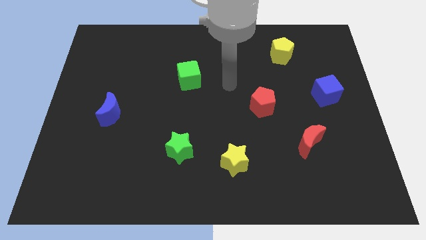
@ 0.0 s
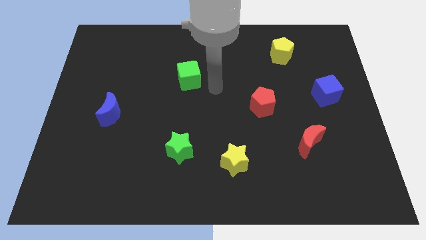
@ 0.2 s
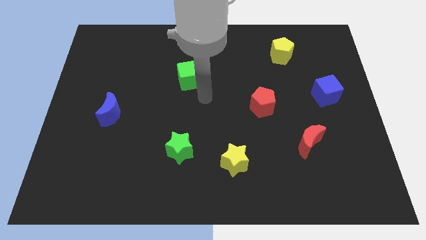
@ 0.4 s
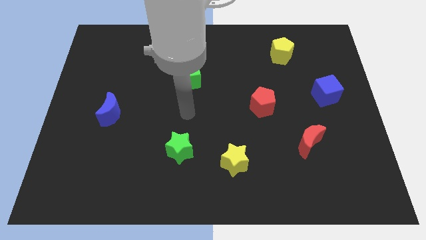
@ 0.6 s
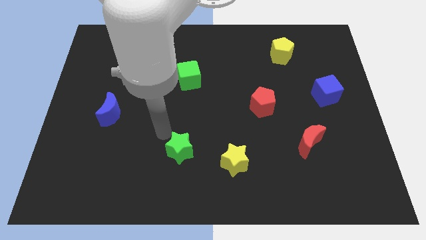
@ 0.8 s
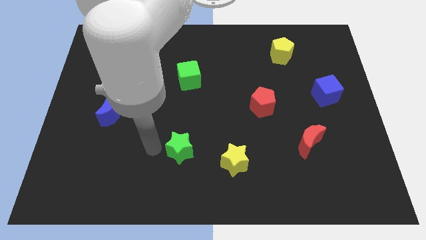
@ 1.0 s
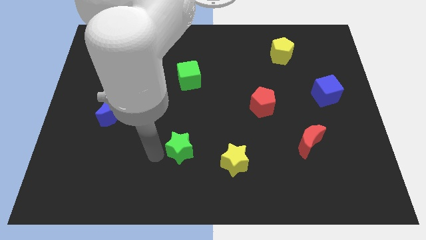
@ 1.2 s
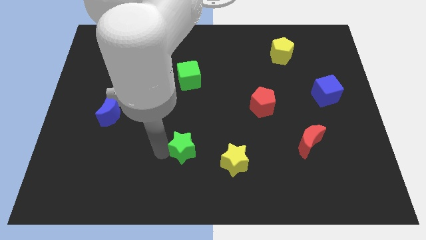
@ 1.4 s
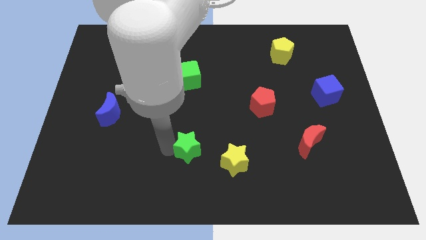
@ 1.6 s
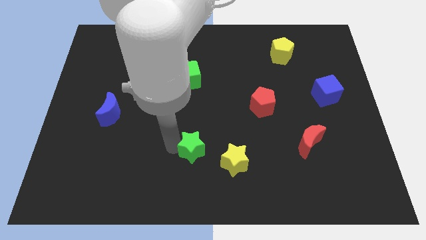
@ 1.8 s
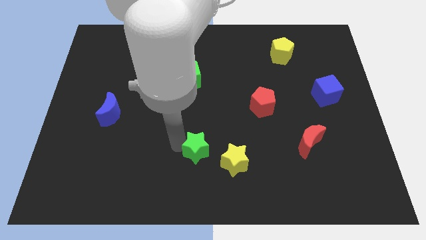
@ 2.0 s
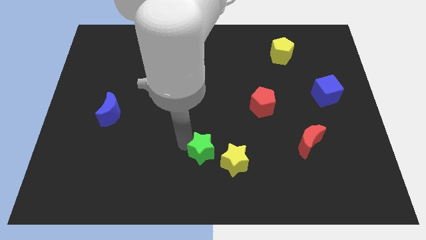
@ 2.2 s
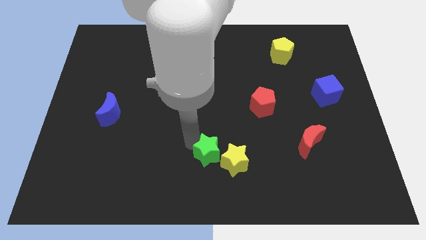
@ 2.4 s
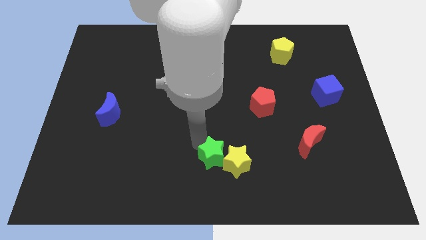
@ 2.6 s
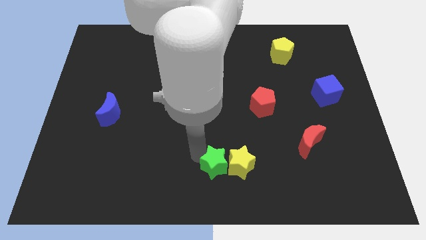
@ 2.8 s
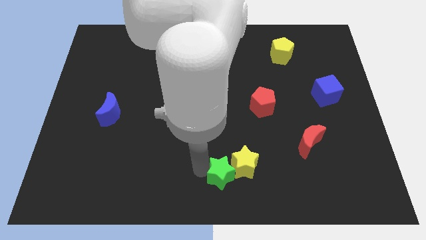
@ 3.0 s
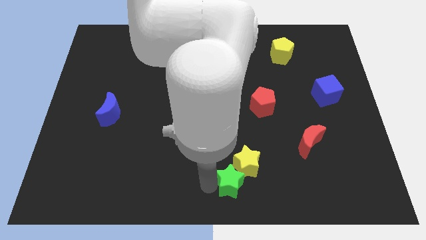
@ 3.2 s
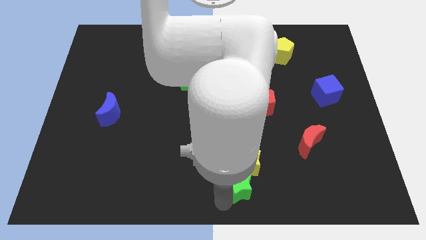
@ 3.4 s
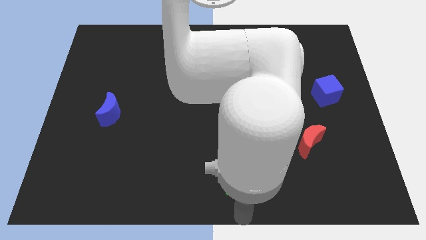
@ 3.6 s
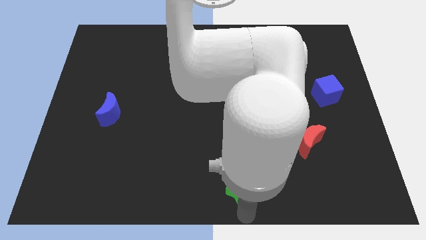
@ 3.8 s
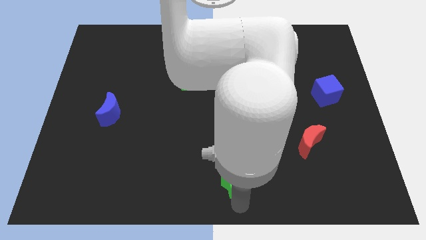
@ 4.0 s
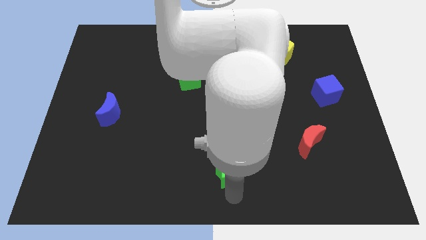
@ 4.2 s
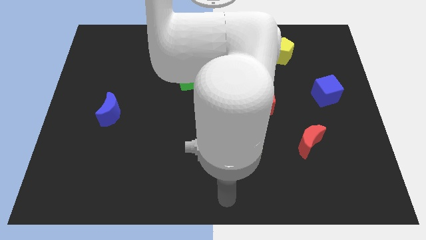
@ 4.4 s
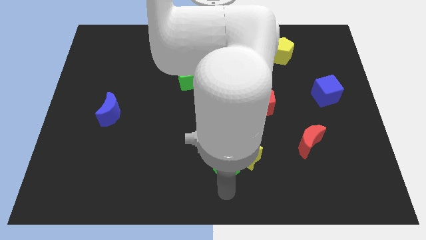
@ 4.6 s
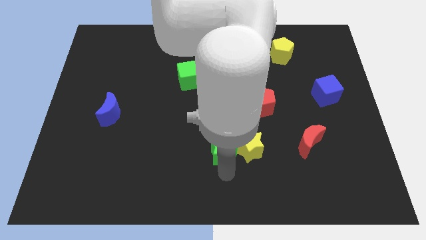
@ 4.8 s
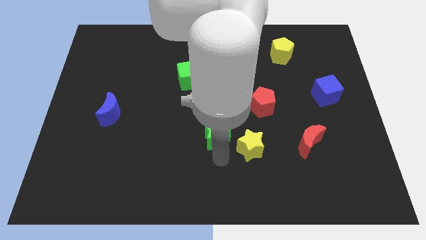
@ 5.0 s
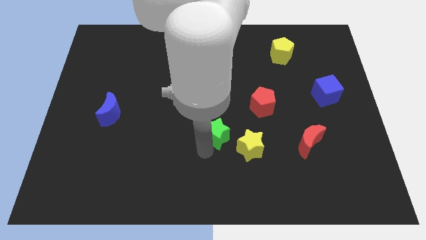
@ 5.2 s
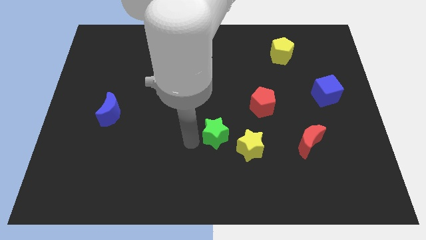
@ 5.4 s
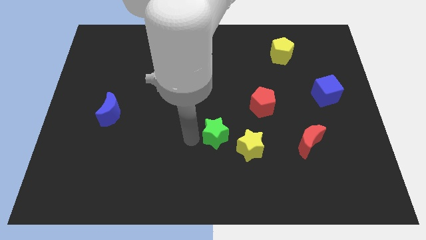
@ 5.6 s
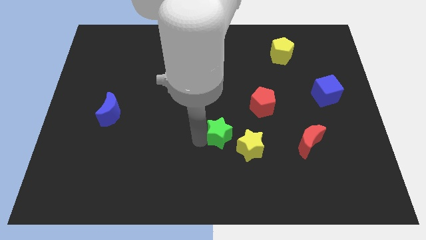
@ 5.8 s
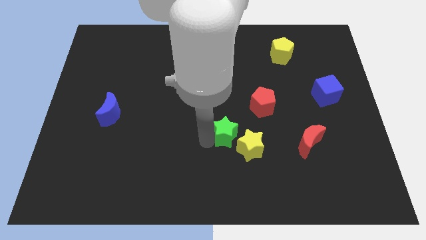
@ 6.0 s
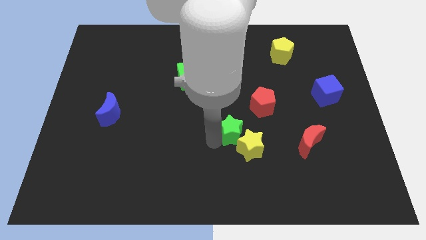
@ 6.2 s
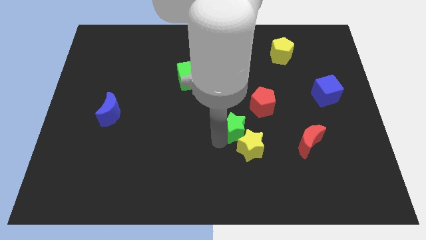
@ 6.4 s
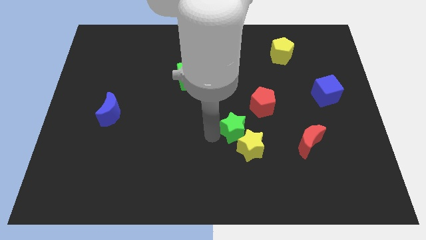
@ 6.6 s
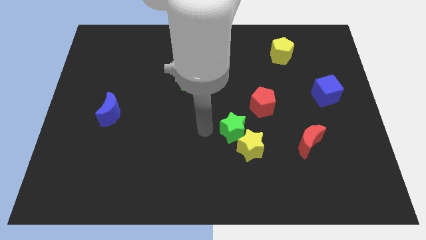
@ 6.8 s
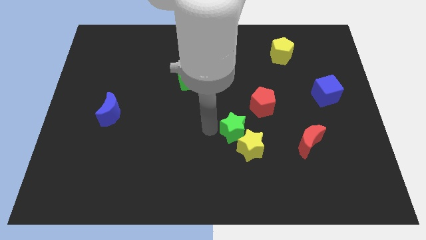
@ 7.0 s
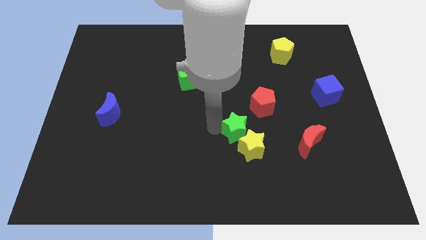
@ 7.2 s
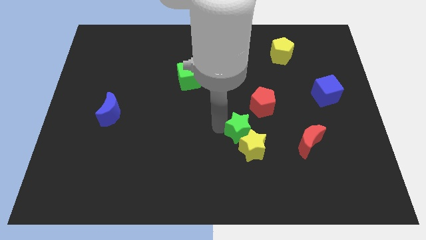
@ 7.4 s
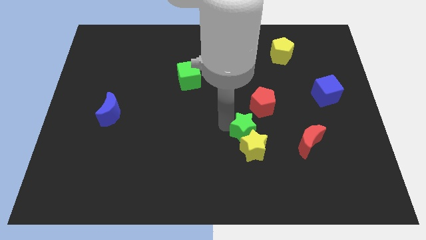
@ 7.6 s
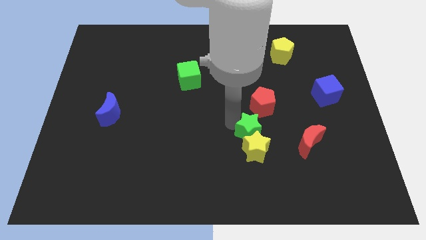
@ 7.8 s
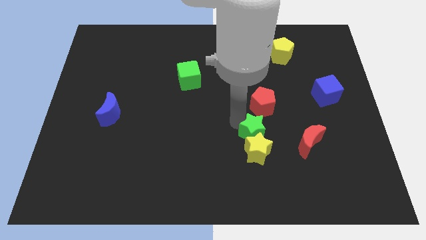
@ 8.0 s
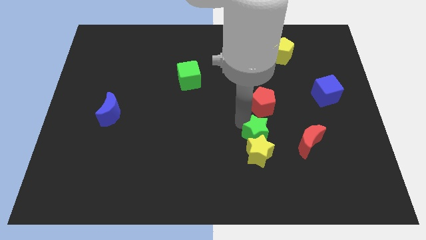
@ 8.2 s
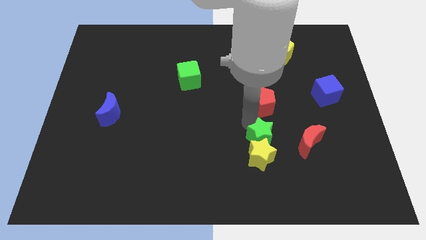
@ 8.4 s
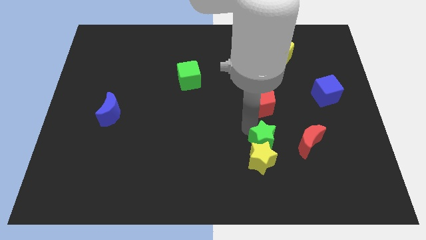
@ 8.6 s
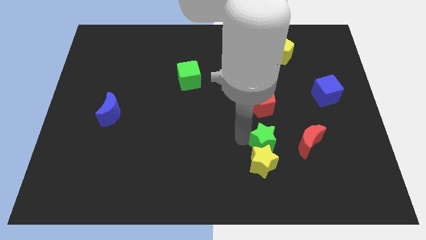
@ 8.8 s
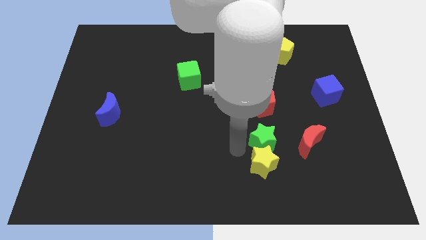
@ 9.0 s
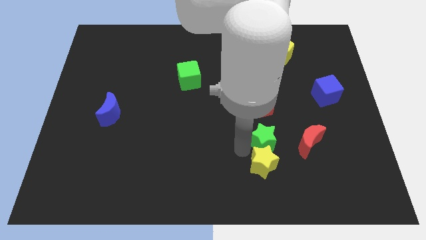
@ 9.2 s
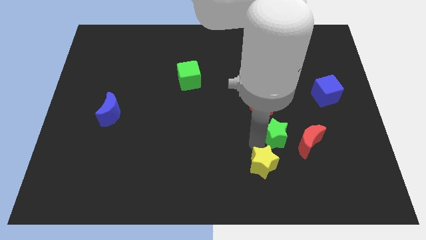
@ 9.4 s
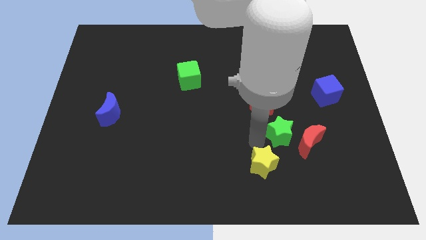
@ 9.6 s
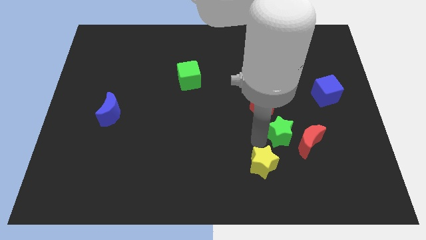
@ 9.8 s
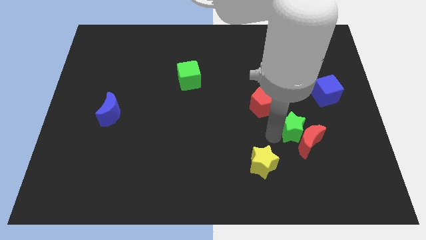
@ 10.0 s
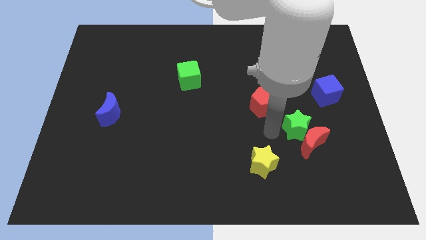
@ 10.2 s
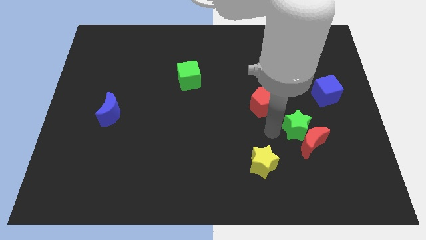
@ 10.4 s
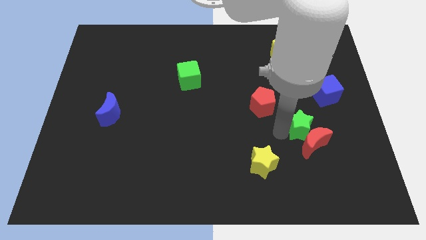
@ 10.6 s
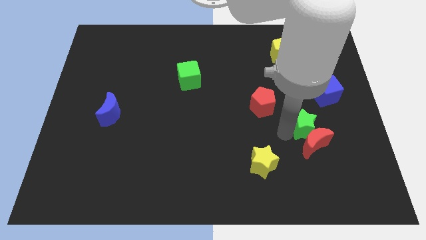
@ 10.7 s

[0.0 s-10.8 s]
put the green star to the top right side of the red moon

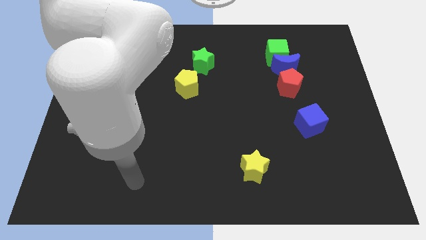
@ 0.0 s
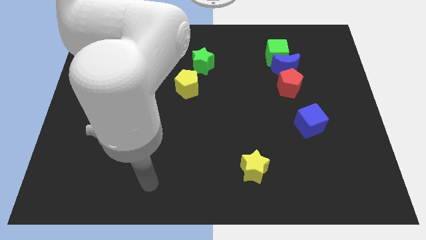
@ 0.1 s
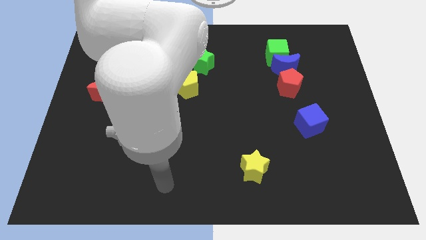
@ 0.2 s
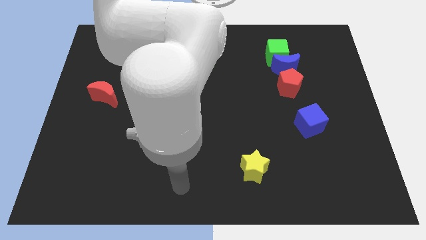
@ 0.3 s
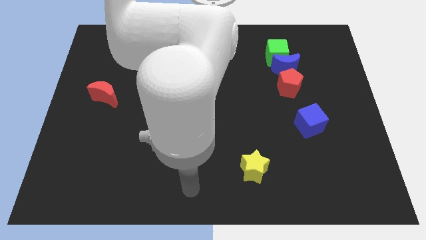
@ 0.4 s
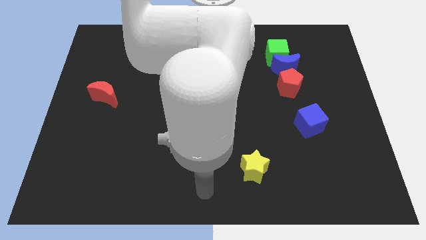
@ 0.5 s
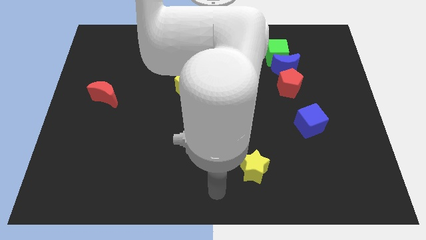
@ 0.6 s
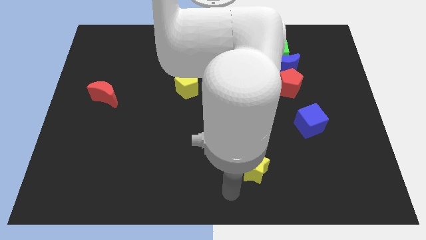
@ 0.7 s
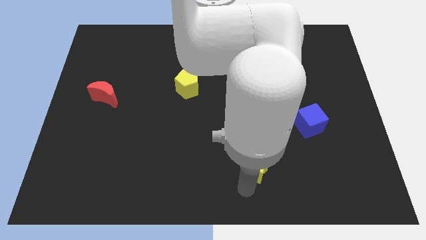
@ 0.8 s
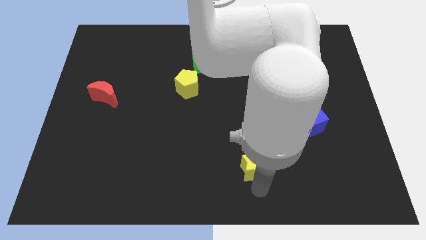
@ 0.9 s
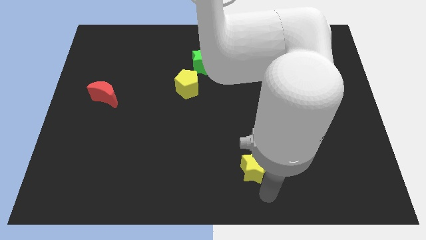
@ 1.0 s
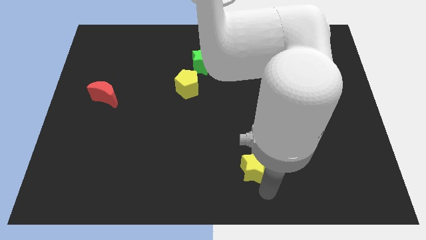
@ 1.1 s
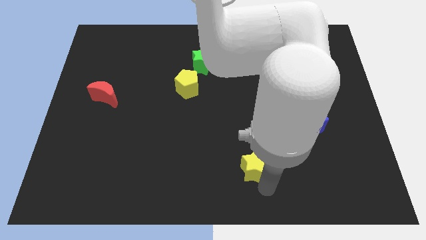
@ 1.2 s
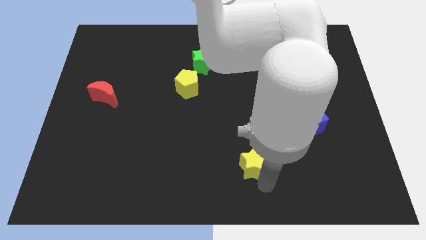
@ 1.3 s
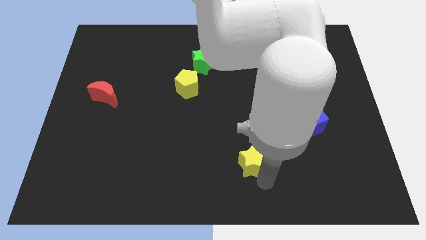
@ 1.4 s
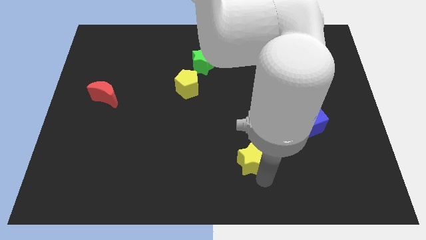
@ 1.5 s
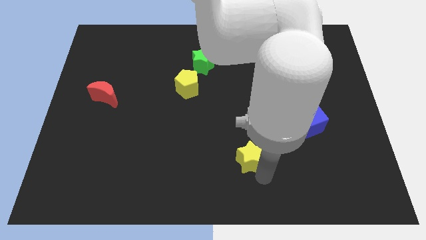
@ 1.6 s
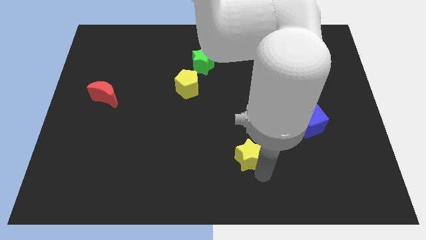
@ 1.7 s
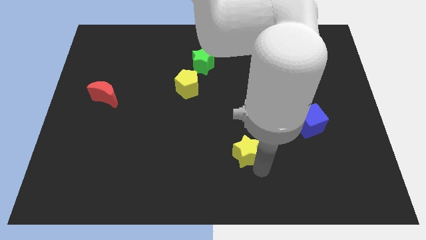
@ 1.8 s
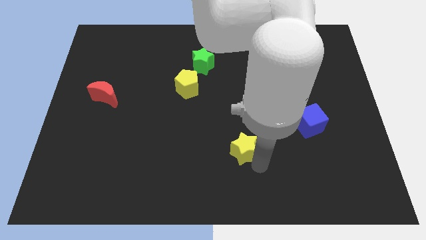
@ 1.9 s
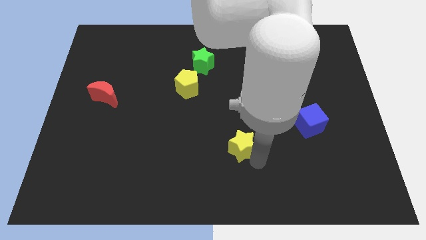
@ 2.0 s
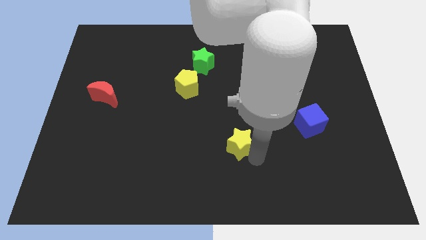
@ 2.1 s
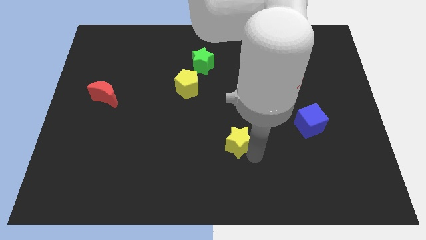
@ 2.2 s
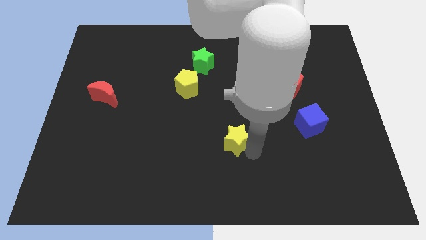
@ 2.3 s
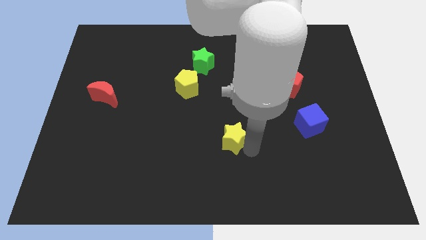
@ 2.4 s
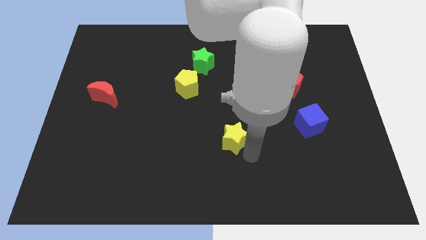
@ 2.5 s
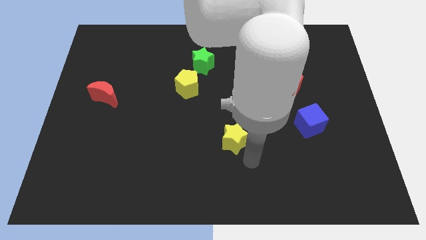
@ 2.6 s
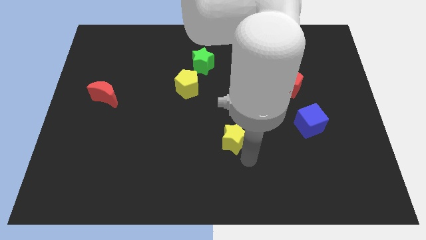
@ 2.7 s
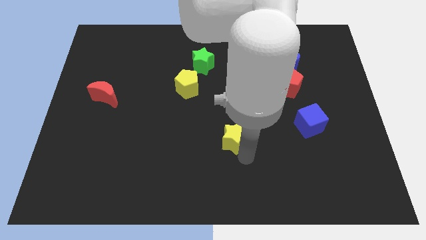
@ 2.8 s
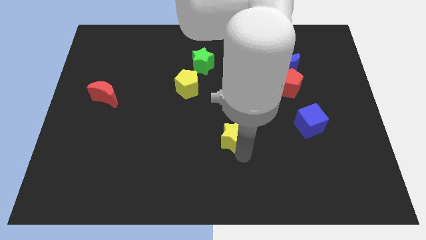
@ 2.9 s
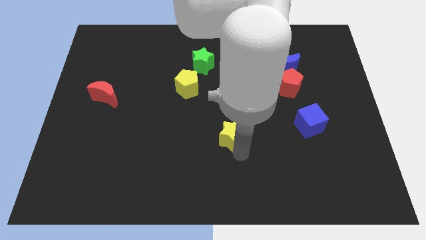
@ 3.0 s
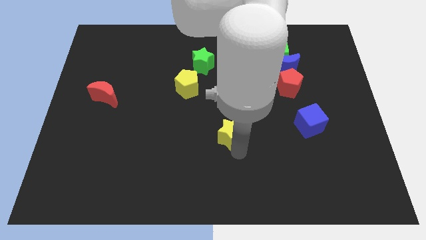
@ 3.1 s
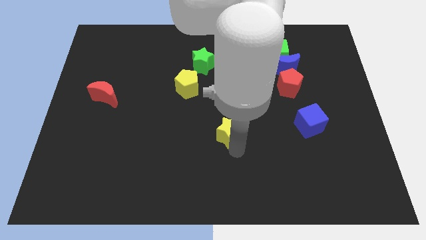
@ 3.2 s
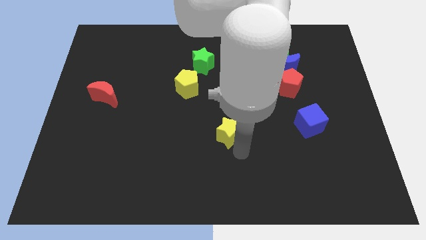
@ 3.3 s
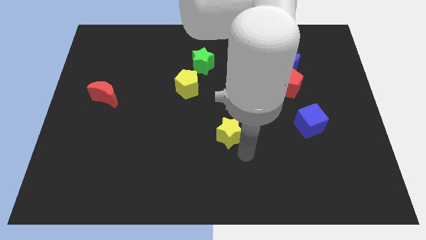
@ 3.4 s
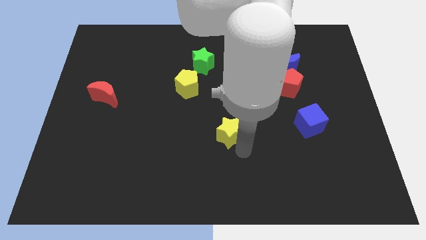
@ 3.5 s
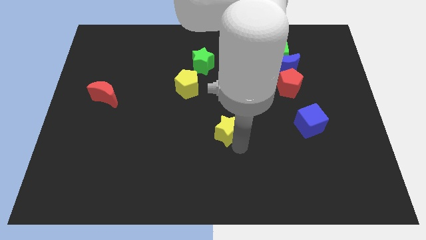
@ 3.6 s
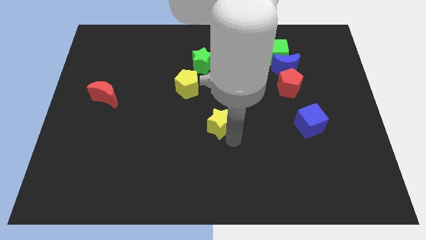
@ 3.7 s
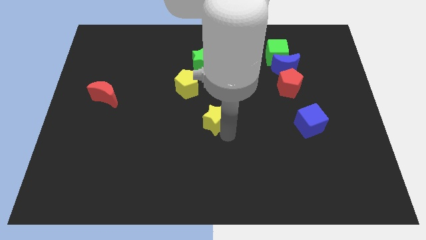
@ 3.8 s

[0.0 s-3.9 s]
put the yellow star to the bottom right side of the yellow pentagon
